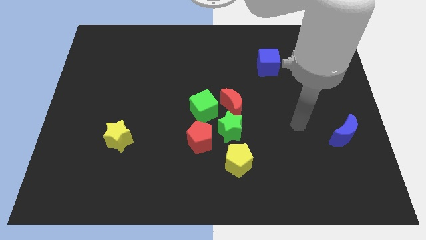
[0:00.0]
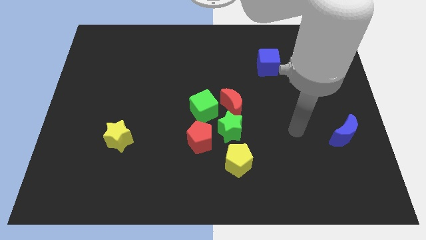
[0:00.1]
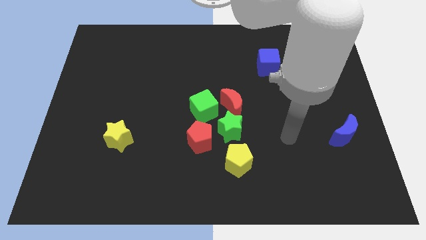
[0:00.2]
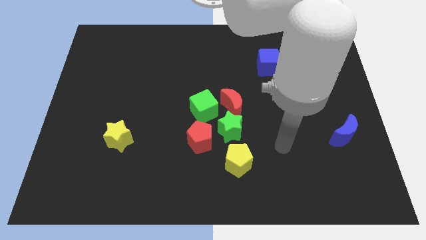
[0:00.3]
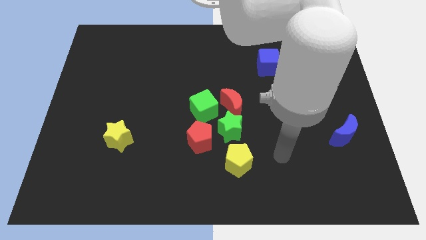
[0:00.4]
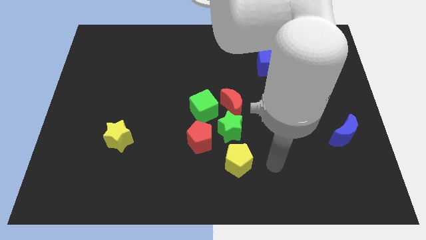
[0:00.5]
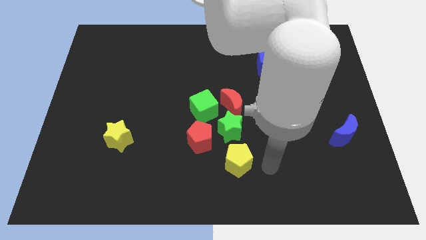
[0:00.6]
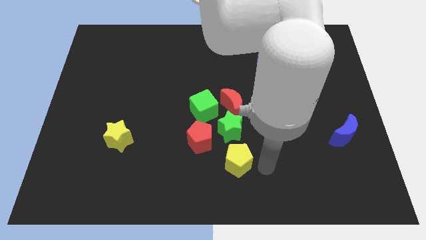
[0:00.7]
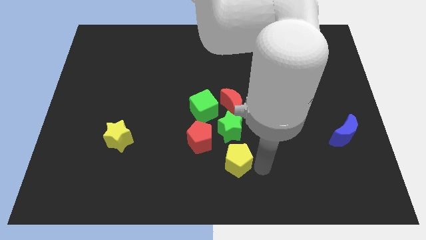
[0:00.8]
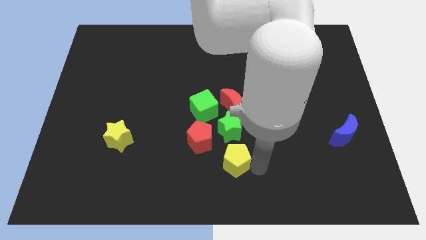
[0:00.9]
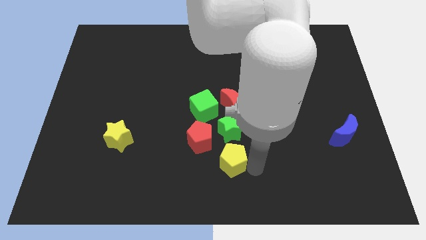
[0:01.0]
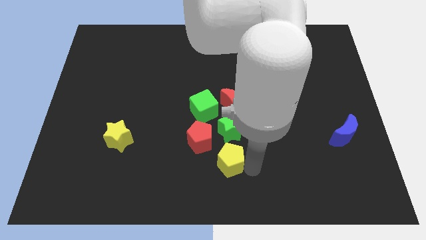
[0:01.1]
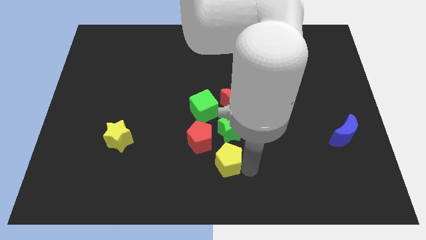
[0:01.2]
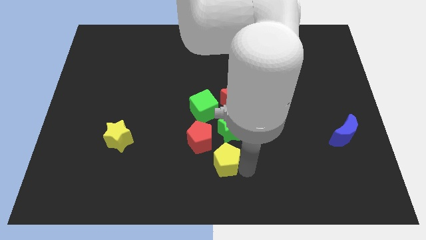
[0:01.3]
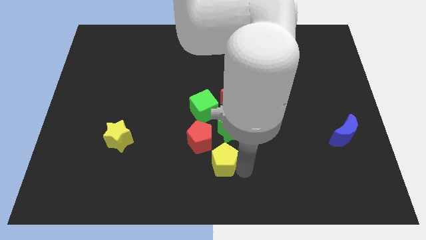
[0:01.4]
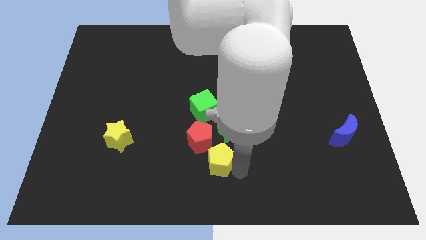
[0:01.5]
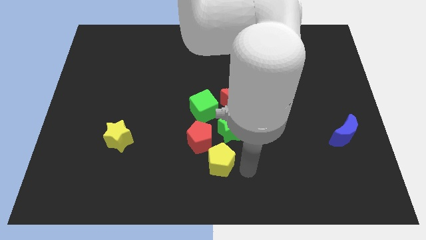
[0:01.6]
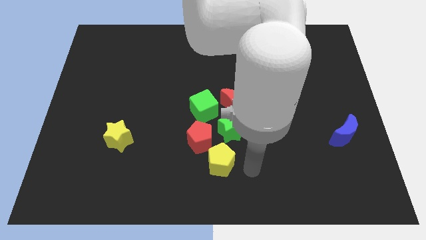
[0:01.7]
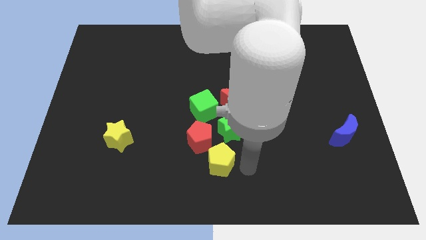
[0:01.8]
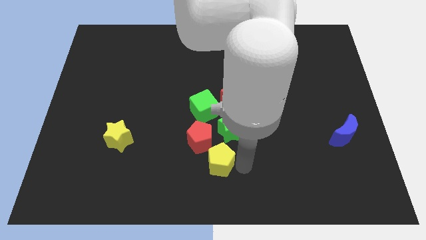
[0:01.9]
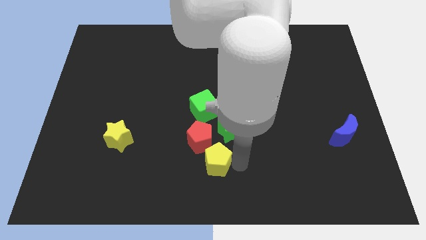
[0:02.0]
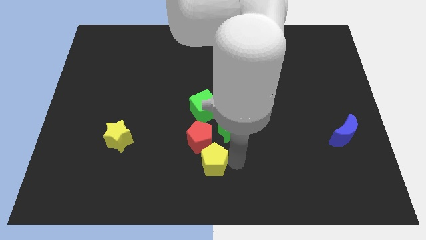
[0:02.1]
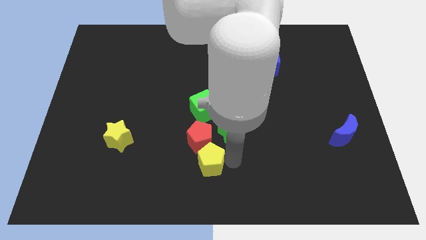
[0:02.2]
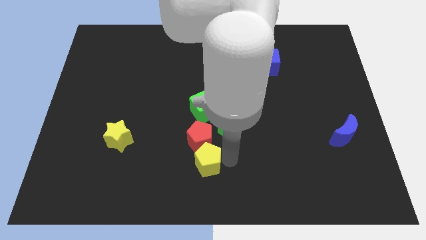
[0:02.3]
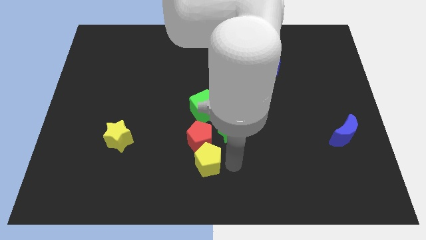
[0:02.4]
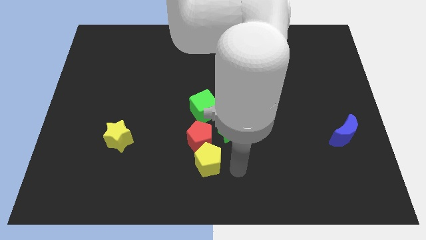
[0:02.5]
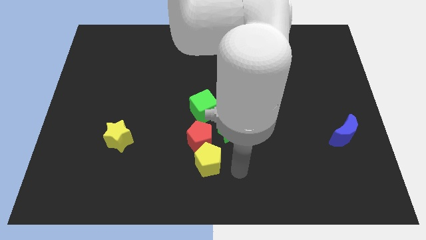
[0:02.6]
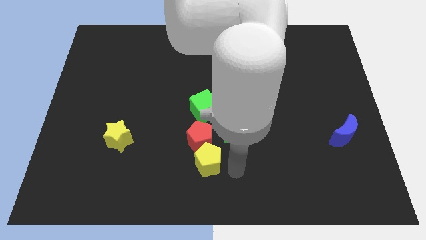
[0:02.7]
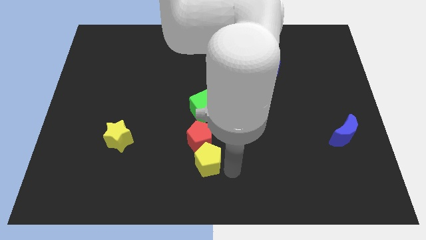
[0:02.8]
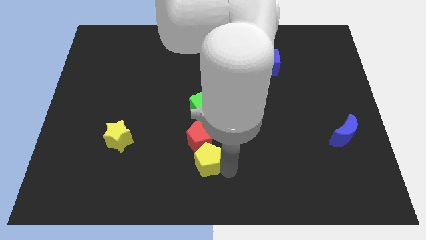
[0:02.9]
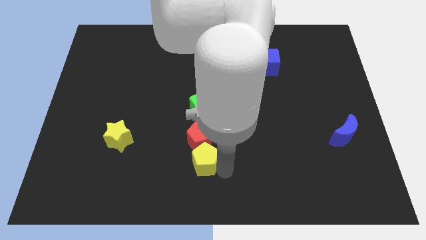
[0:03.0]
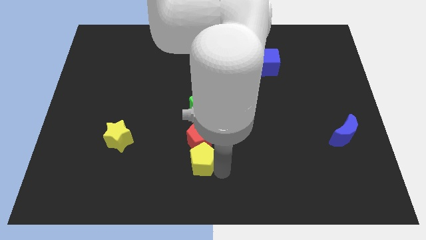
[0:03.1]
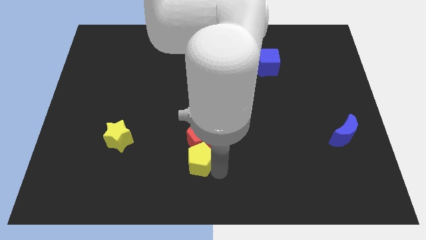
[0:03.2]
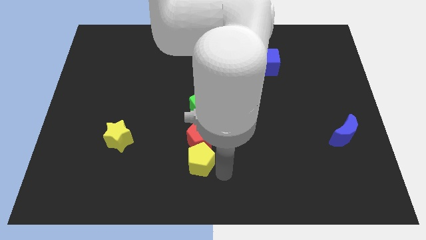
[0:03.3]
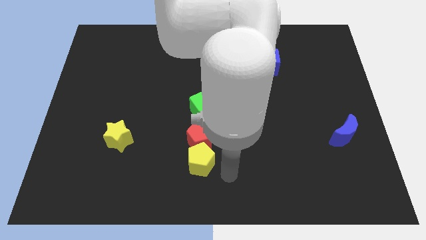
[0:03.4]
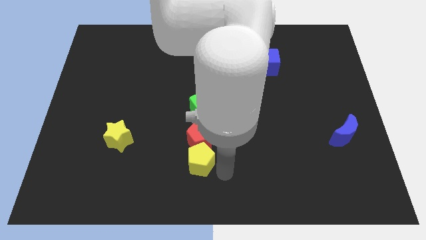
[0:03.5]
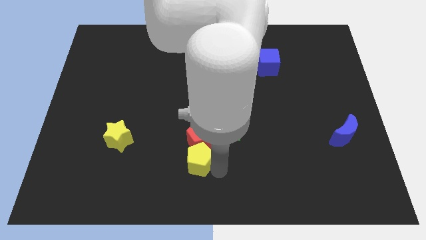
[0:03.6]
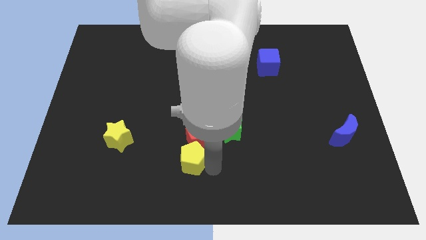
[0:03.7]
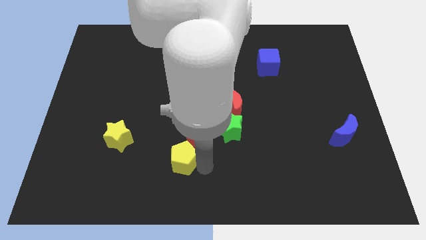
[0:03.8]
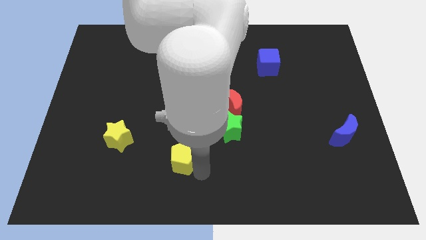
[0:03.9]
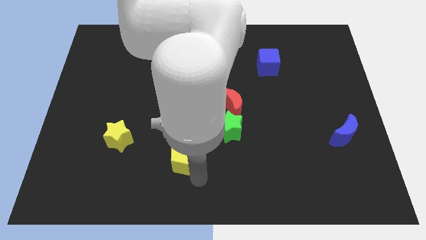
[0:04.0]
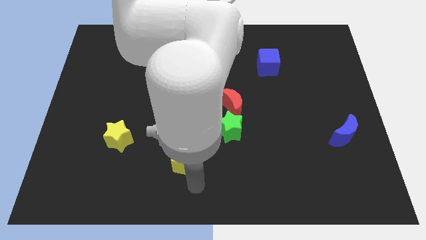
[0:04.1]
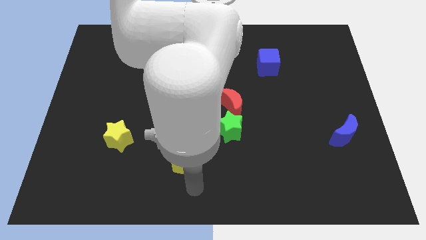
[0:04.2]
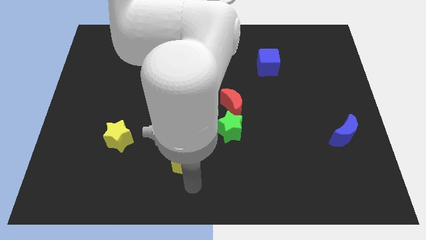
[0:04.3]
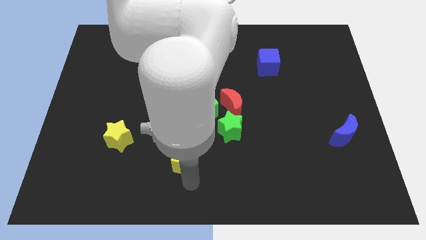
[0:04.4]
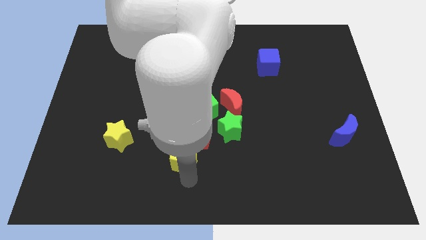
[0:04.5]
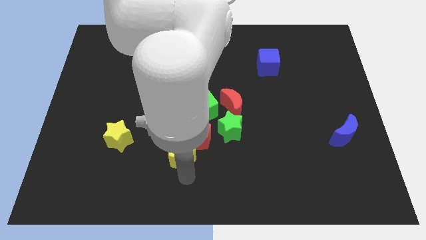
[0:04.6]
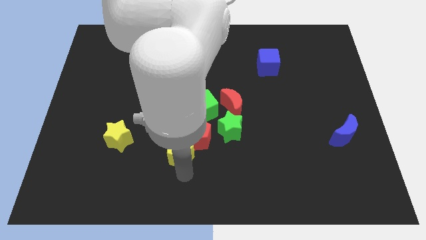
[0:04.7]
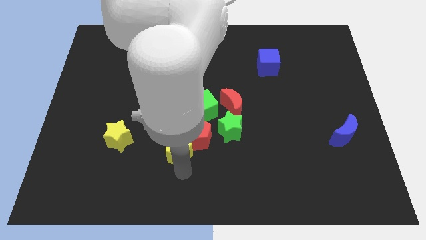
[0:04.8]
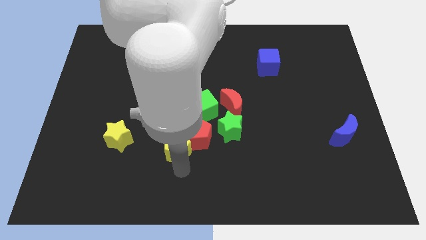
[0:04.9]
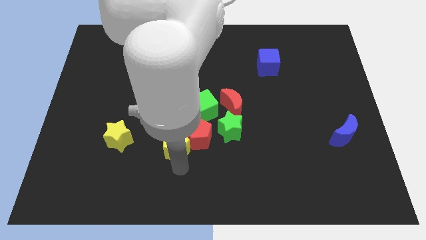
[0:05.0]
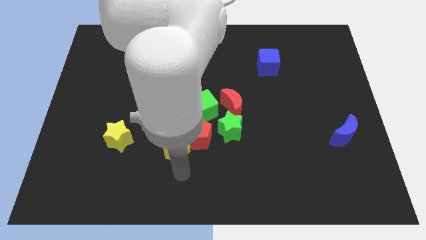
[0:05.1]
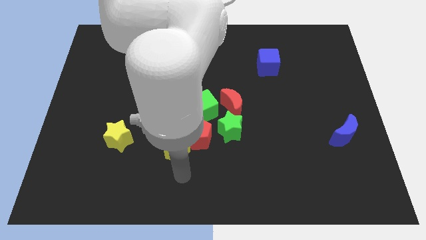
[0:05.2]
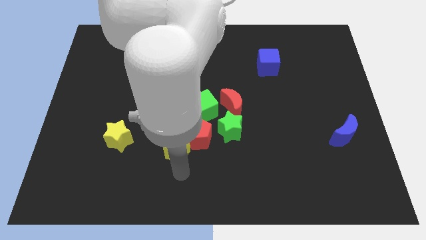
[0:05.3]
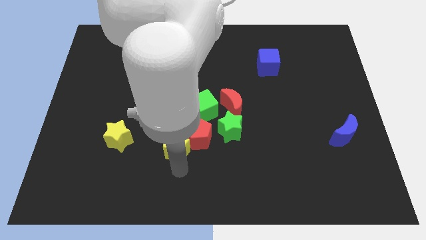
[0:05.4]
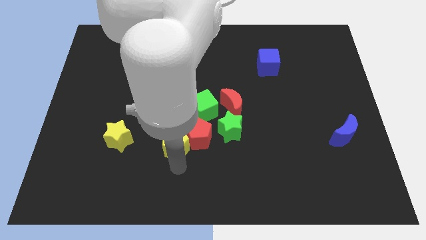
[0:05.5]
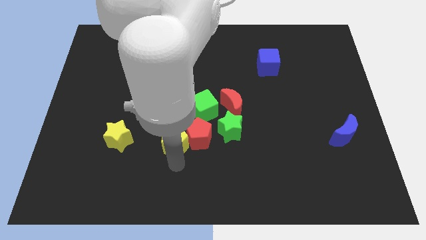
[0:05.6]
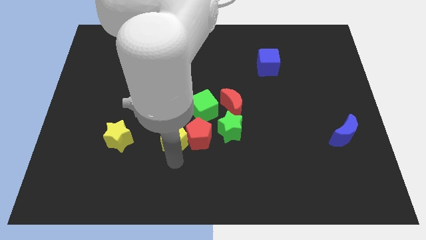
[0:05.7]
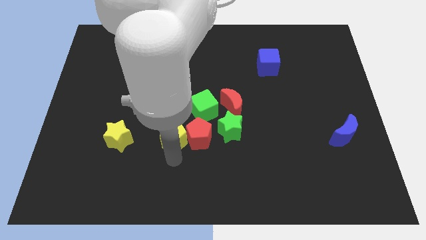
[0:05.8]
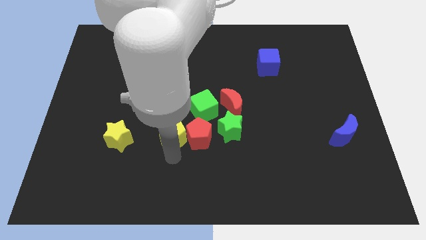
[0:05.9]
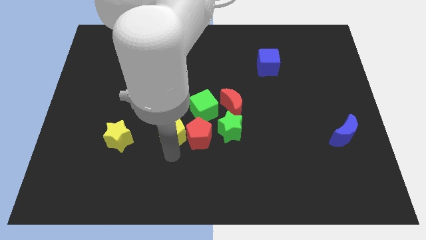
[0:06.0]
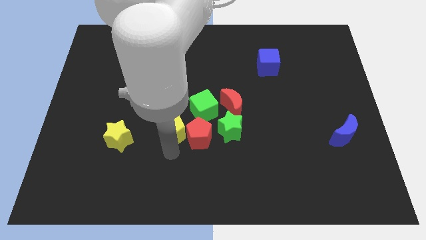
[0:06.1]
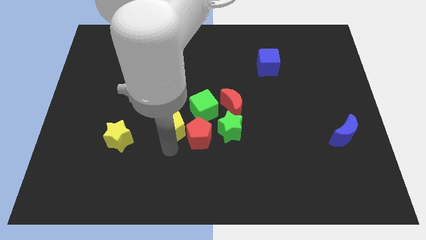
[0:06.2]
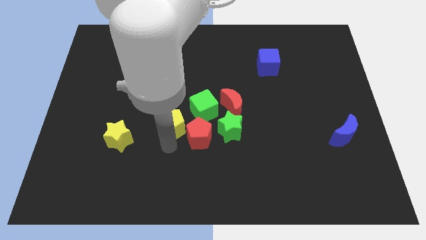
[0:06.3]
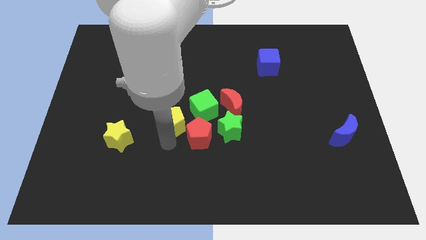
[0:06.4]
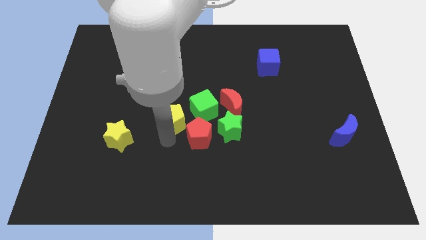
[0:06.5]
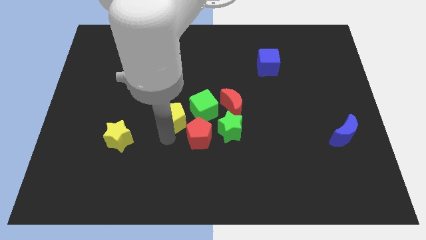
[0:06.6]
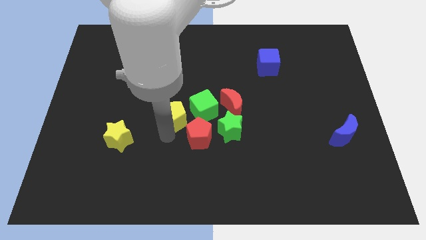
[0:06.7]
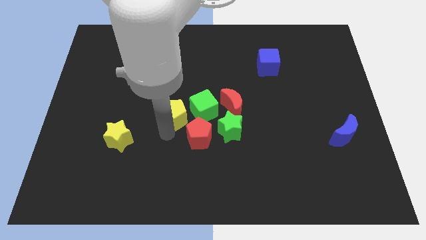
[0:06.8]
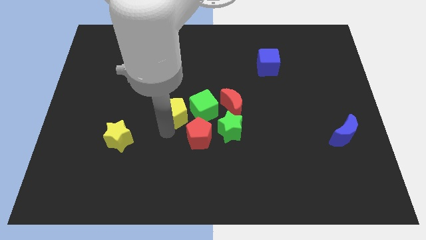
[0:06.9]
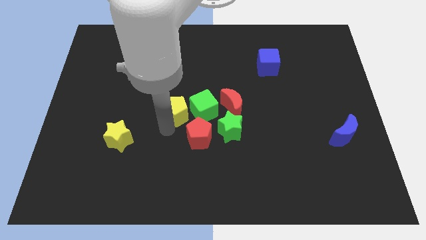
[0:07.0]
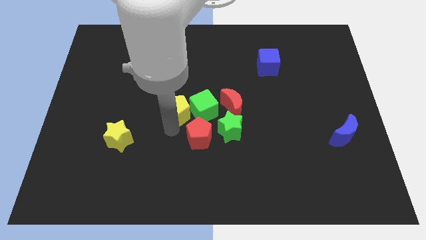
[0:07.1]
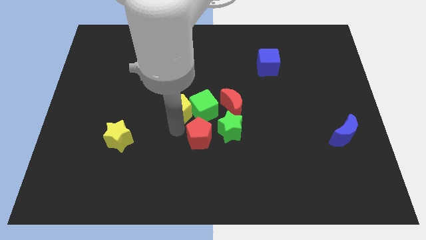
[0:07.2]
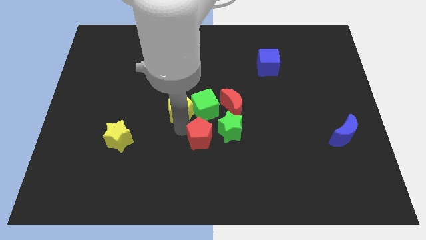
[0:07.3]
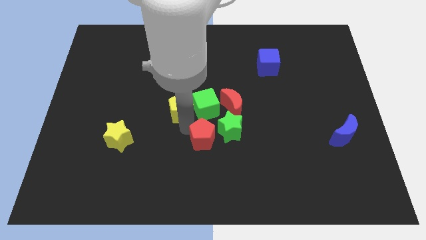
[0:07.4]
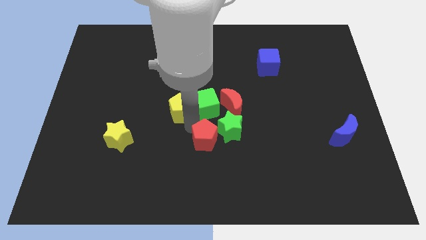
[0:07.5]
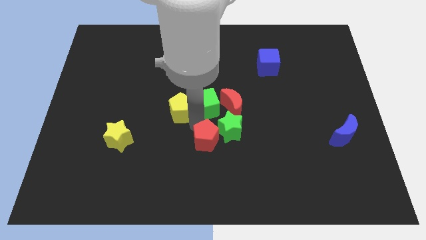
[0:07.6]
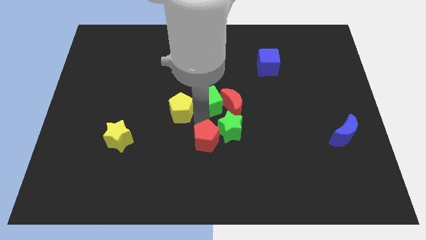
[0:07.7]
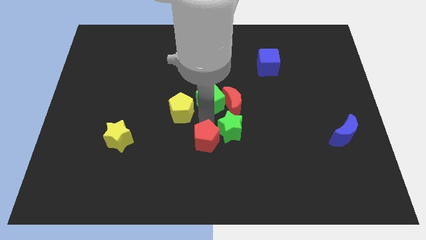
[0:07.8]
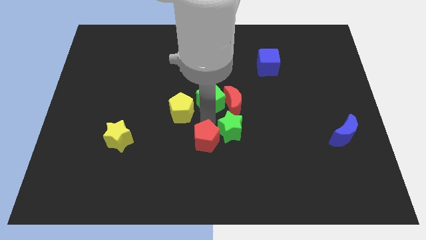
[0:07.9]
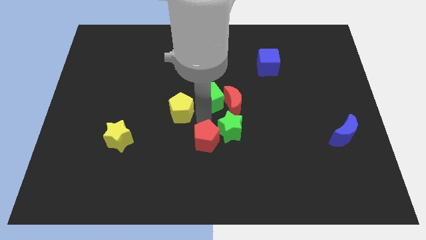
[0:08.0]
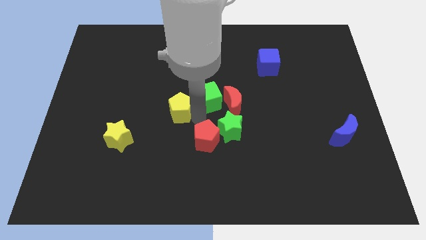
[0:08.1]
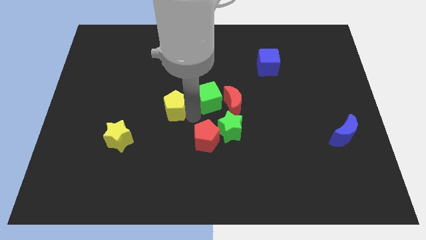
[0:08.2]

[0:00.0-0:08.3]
push the yellow pentagon diagonally upwards and left
